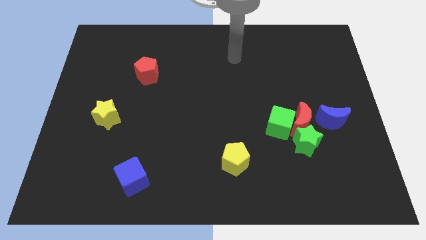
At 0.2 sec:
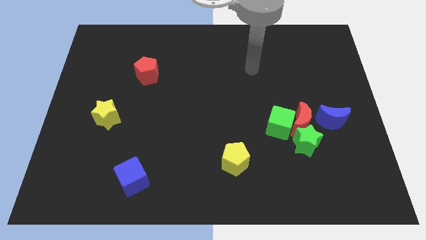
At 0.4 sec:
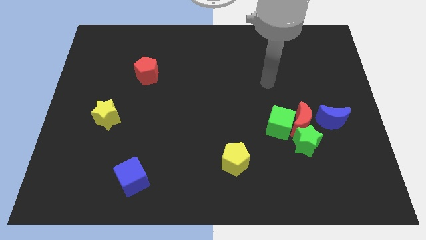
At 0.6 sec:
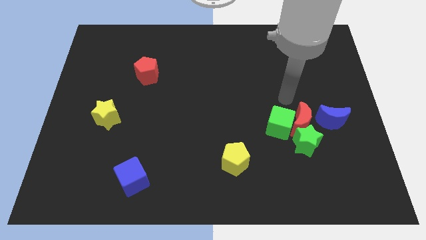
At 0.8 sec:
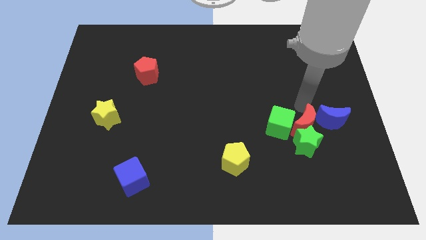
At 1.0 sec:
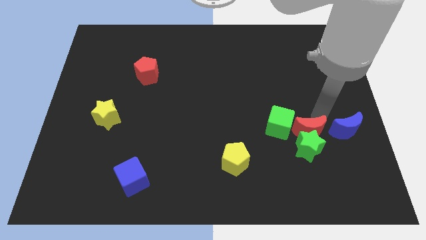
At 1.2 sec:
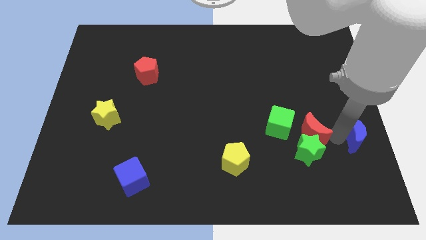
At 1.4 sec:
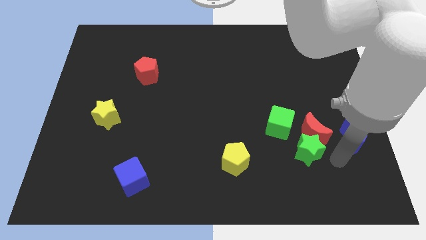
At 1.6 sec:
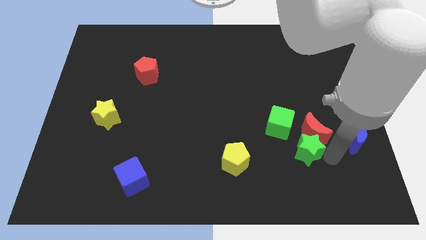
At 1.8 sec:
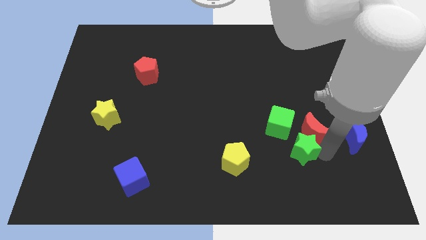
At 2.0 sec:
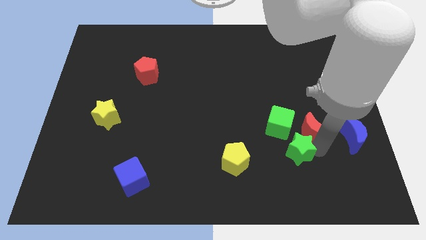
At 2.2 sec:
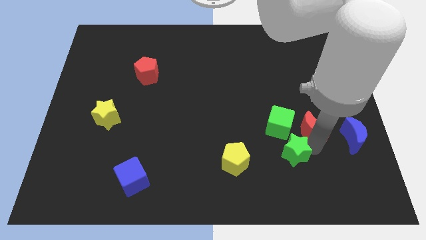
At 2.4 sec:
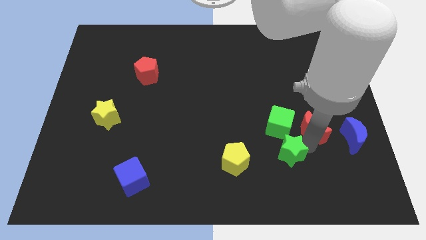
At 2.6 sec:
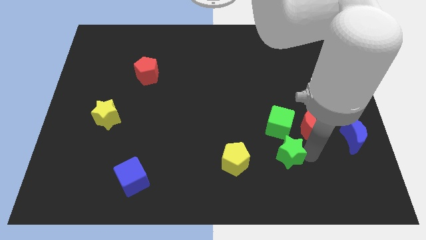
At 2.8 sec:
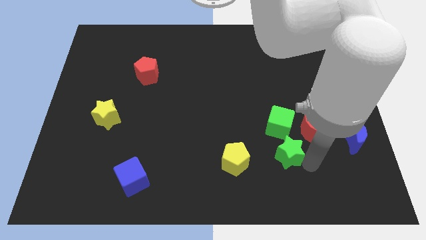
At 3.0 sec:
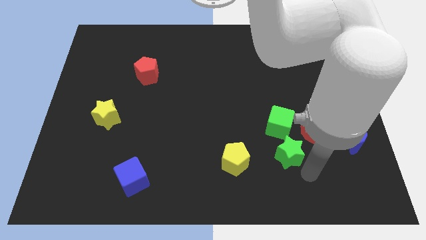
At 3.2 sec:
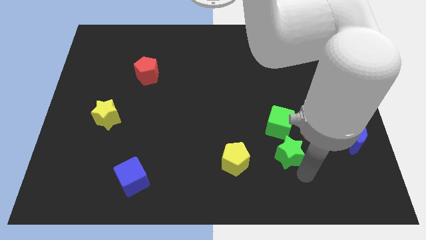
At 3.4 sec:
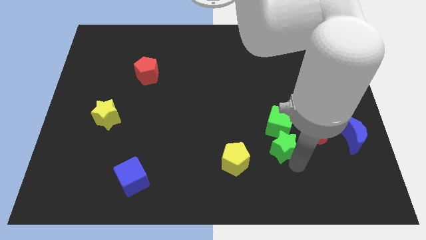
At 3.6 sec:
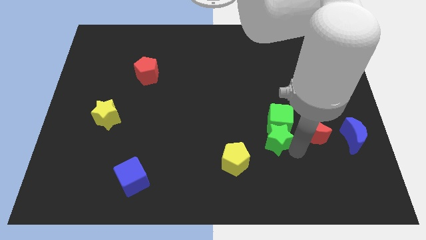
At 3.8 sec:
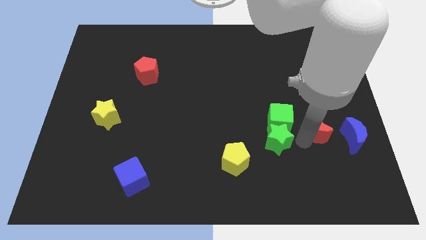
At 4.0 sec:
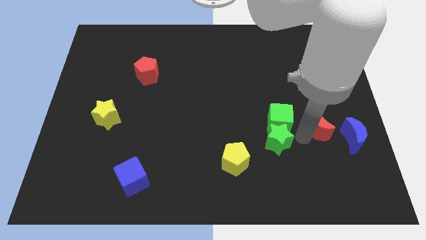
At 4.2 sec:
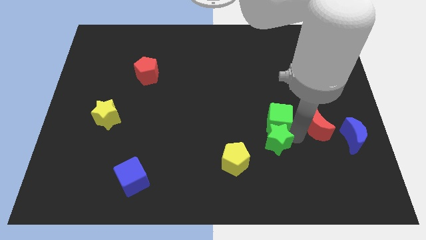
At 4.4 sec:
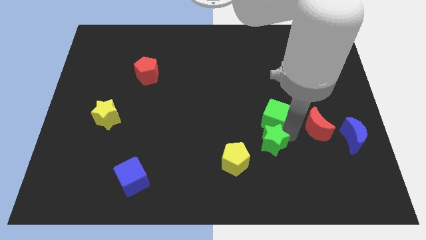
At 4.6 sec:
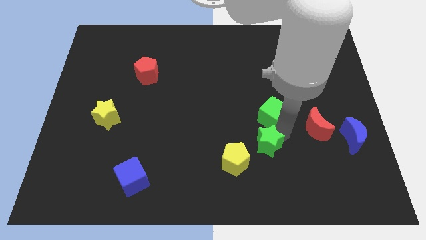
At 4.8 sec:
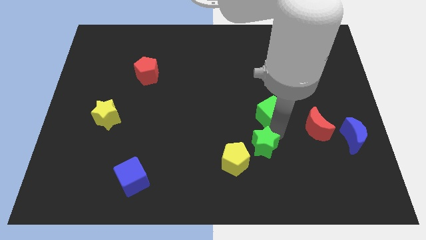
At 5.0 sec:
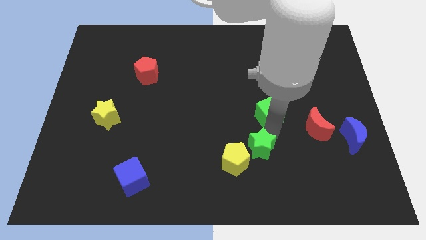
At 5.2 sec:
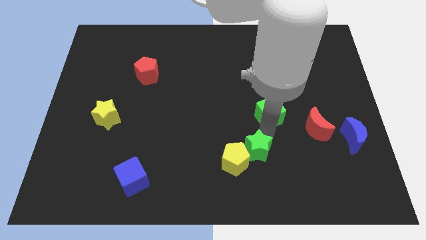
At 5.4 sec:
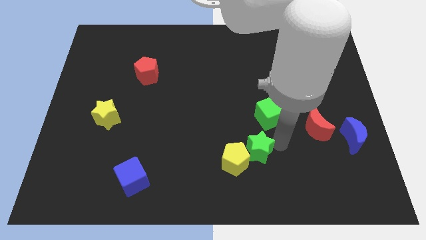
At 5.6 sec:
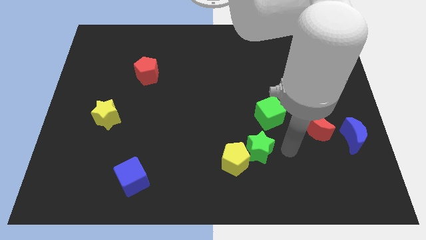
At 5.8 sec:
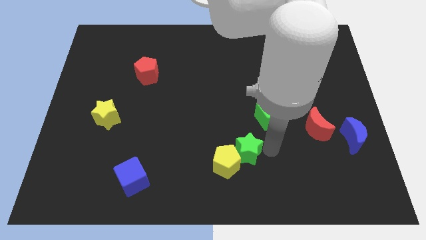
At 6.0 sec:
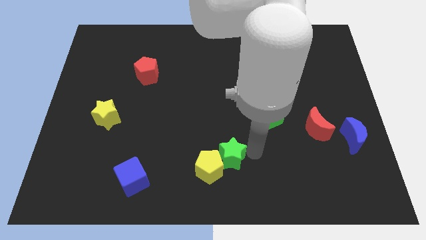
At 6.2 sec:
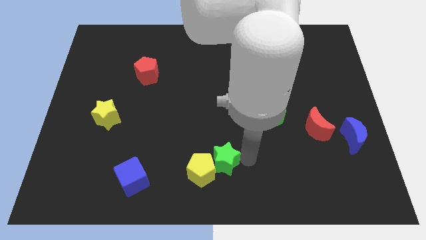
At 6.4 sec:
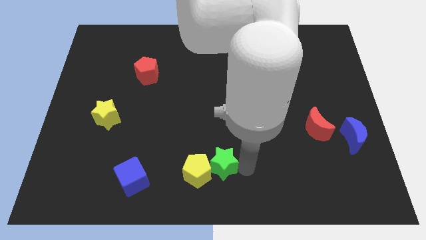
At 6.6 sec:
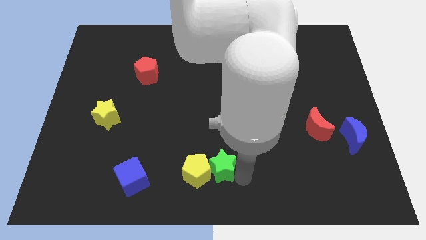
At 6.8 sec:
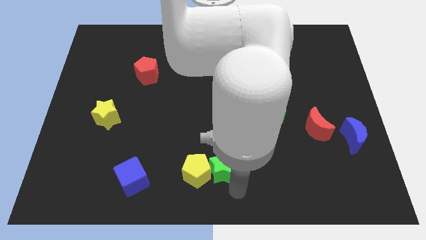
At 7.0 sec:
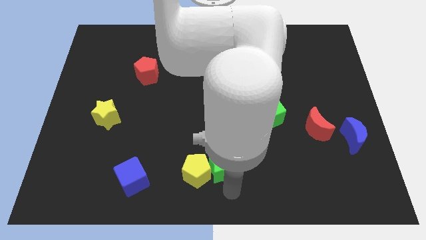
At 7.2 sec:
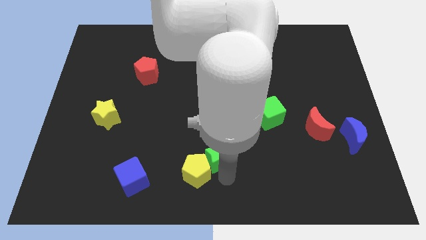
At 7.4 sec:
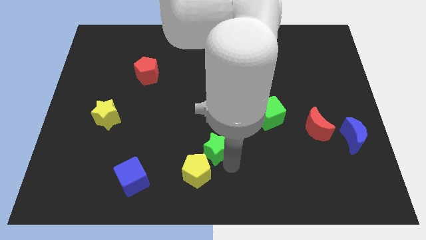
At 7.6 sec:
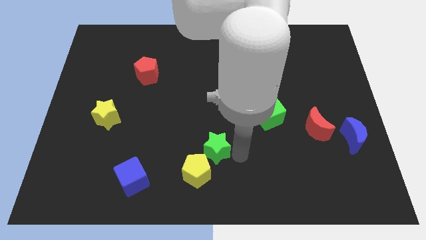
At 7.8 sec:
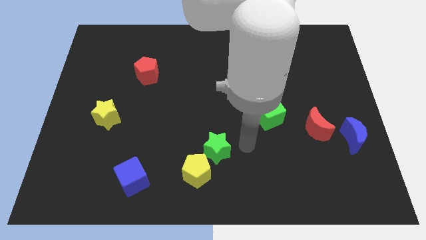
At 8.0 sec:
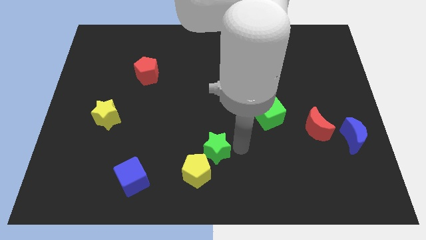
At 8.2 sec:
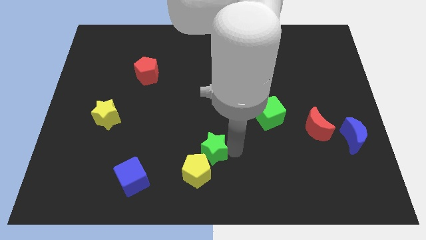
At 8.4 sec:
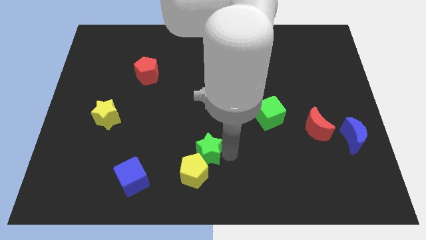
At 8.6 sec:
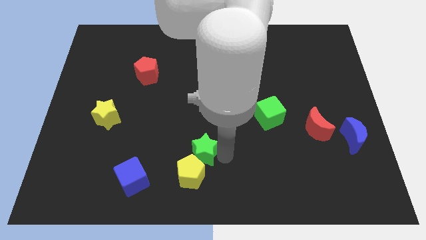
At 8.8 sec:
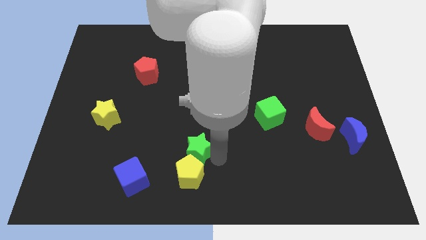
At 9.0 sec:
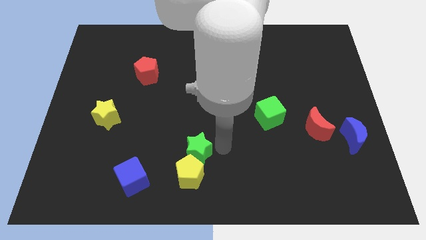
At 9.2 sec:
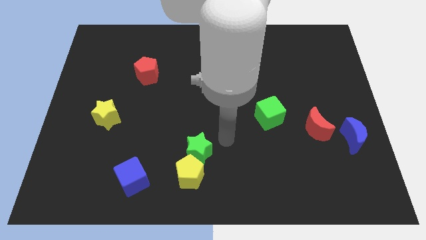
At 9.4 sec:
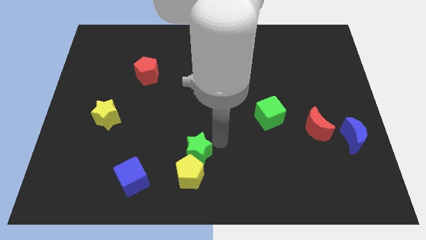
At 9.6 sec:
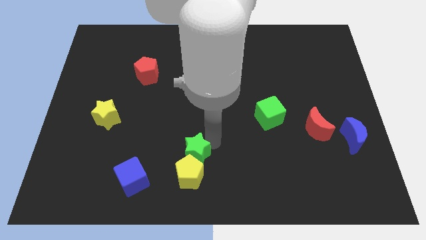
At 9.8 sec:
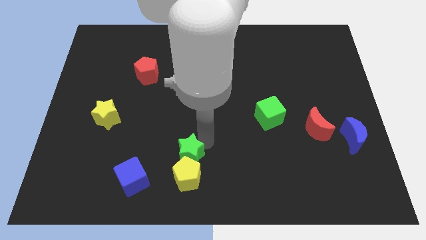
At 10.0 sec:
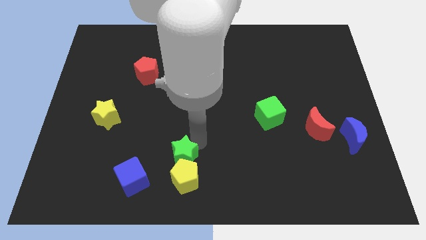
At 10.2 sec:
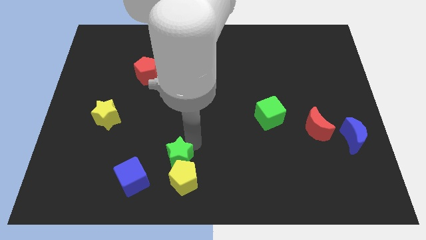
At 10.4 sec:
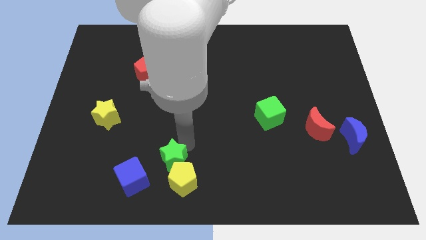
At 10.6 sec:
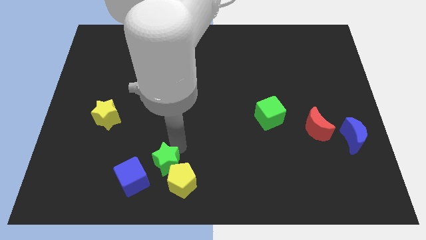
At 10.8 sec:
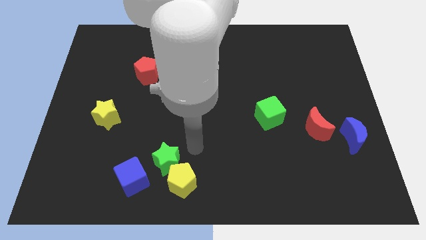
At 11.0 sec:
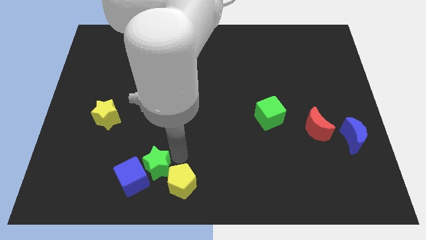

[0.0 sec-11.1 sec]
push the green star next to the blue cube

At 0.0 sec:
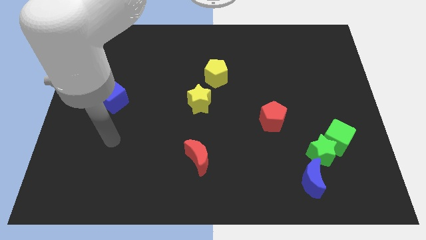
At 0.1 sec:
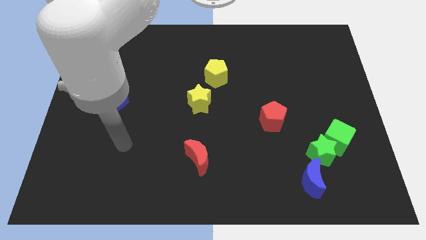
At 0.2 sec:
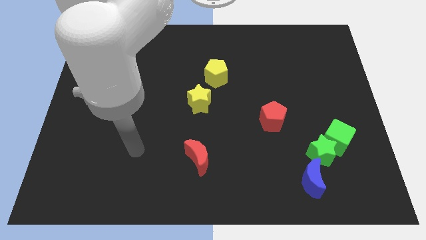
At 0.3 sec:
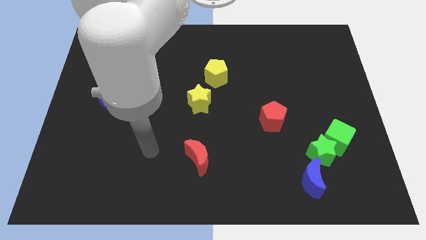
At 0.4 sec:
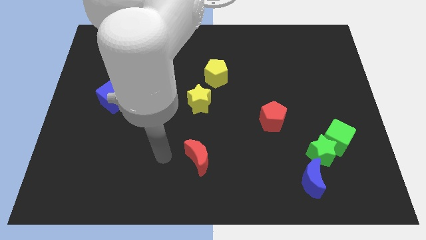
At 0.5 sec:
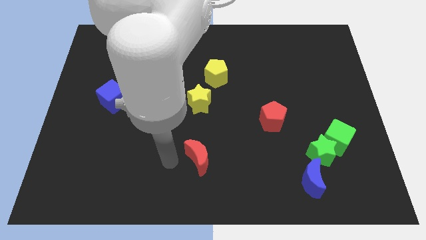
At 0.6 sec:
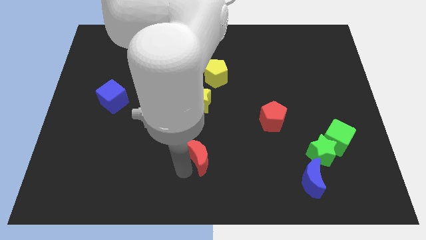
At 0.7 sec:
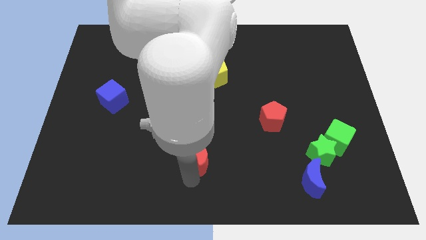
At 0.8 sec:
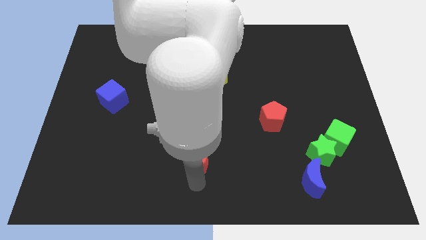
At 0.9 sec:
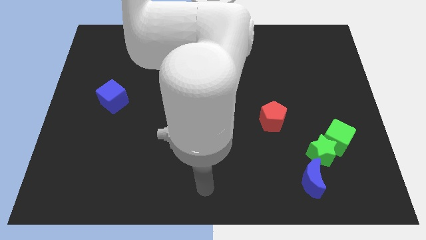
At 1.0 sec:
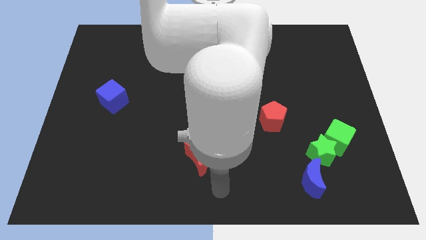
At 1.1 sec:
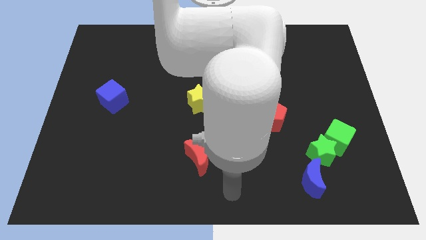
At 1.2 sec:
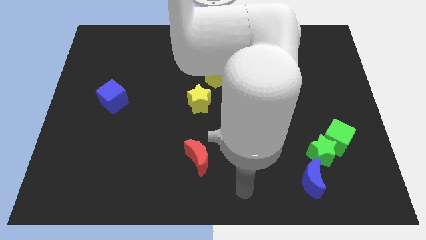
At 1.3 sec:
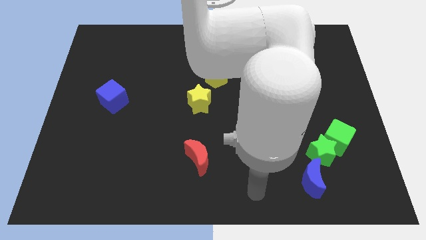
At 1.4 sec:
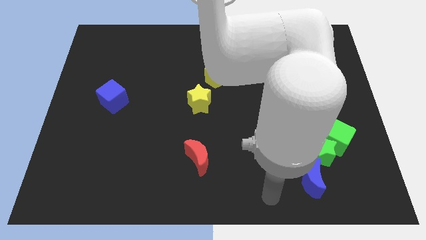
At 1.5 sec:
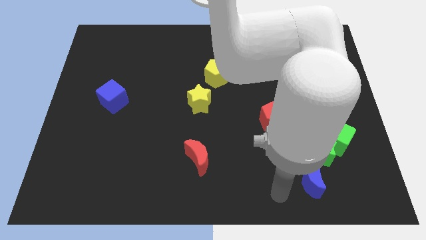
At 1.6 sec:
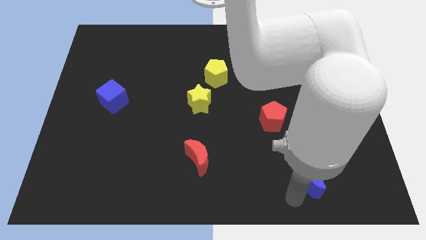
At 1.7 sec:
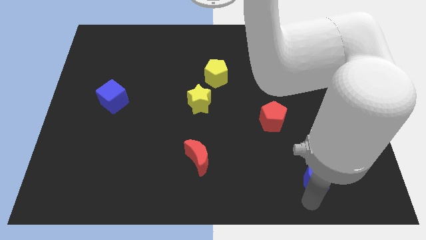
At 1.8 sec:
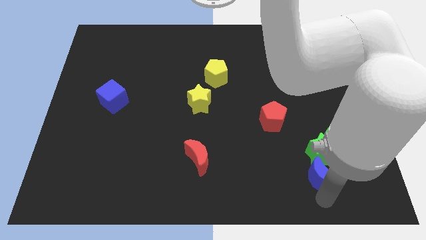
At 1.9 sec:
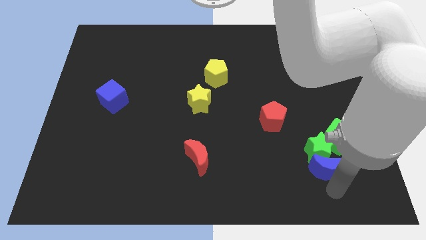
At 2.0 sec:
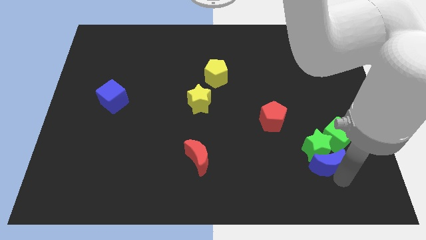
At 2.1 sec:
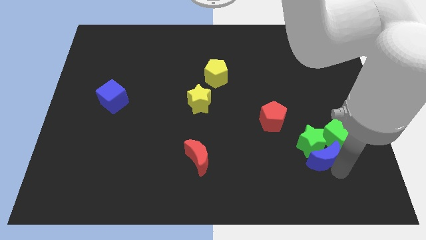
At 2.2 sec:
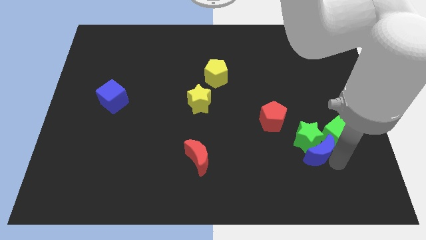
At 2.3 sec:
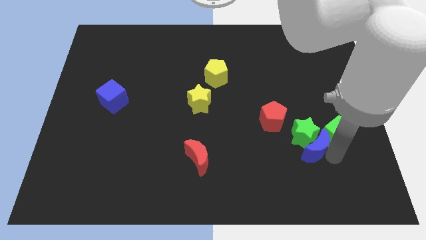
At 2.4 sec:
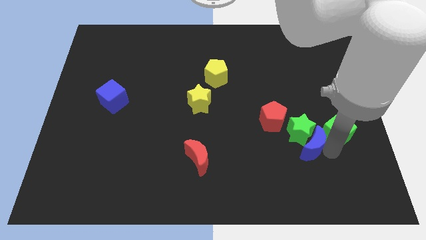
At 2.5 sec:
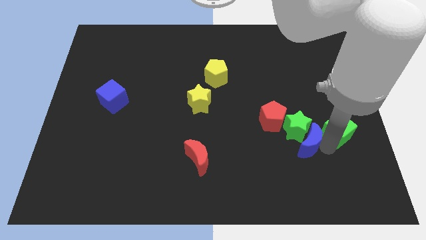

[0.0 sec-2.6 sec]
slide the green star next to the red pentagon

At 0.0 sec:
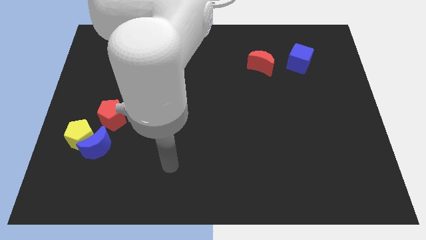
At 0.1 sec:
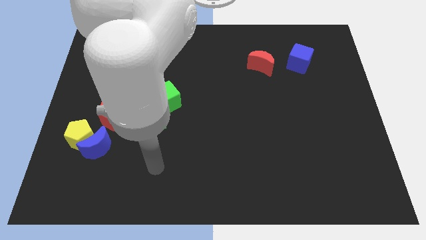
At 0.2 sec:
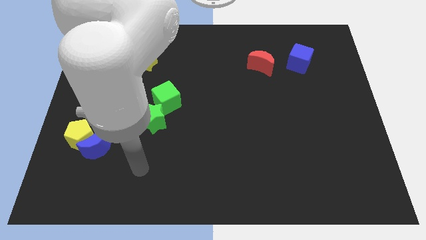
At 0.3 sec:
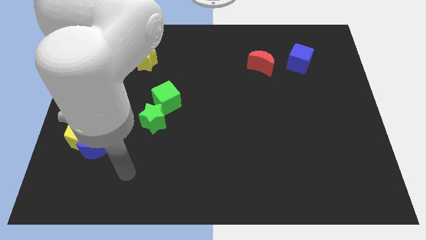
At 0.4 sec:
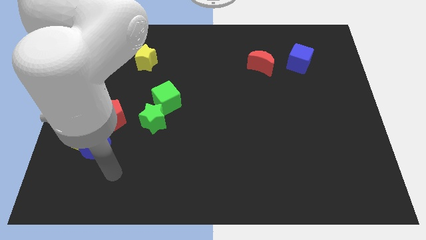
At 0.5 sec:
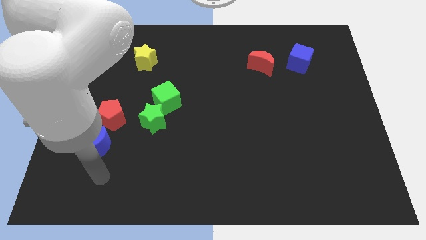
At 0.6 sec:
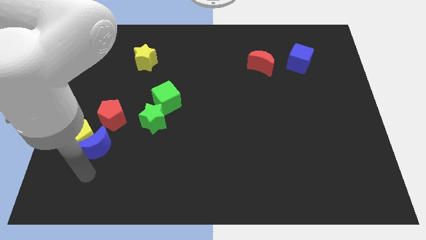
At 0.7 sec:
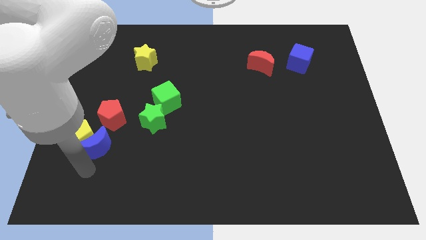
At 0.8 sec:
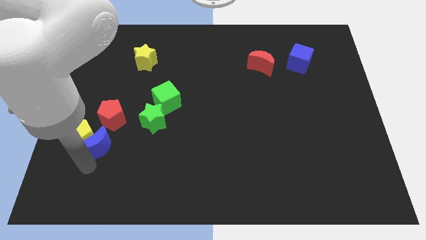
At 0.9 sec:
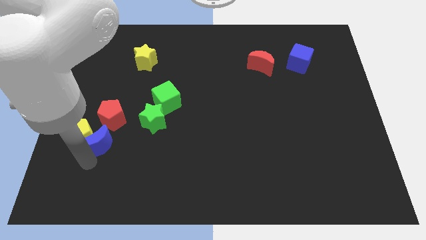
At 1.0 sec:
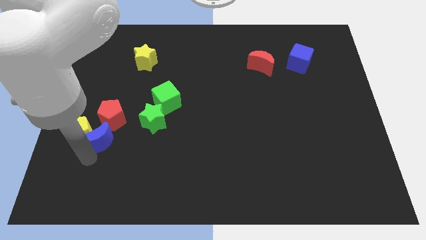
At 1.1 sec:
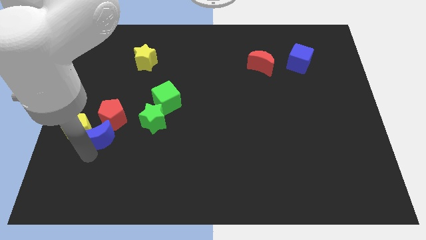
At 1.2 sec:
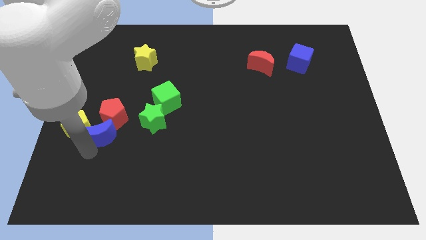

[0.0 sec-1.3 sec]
push the blue moon next to the red pentagon
